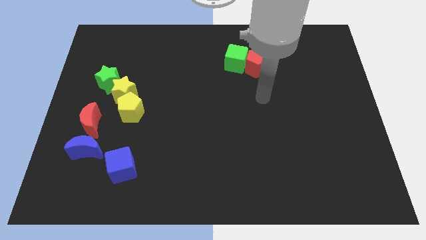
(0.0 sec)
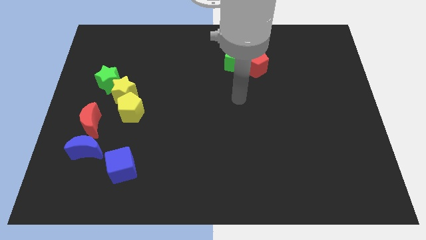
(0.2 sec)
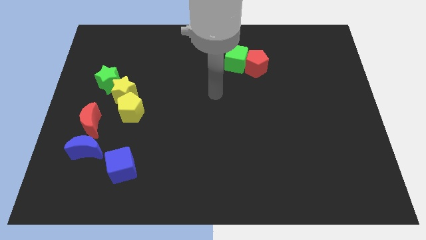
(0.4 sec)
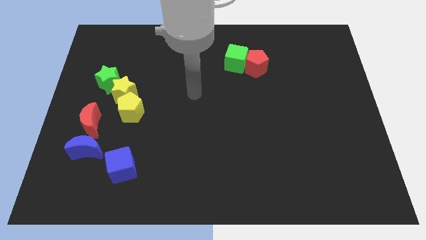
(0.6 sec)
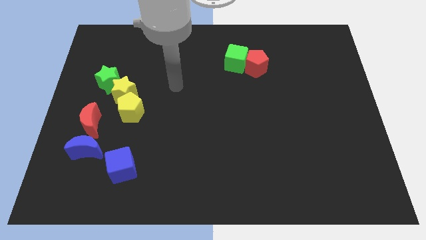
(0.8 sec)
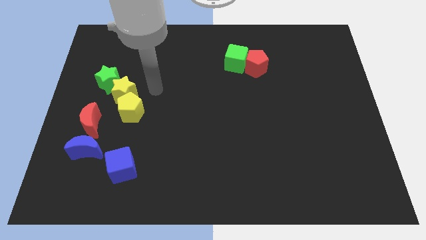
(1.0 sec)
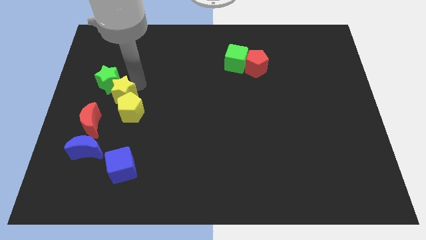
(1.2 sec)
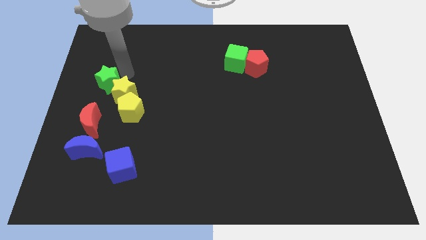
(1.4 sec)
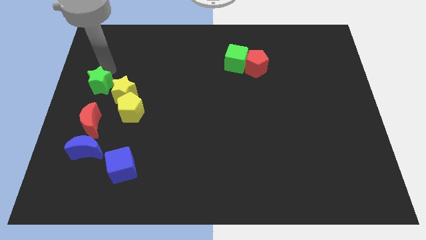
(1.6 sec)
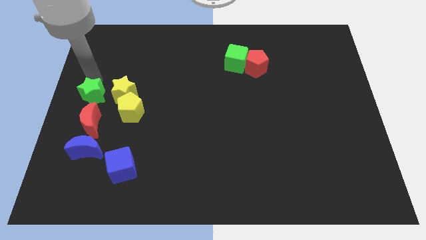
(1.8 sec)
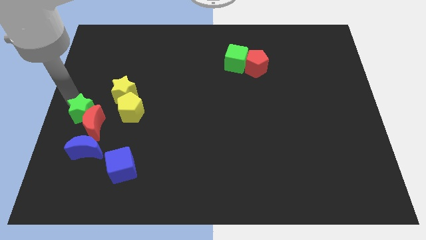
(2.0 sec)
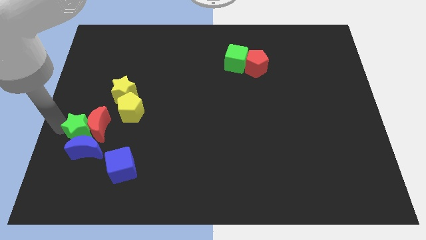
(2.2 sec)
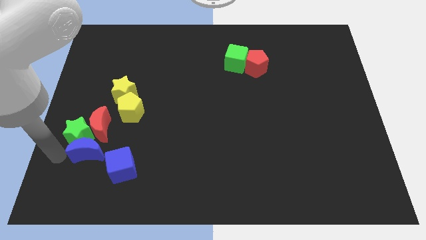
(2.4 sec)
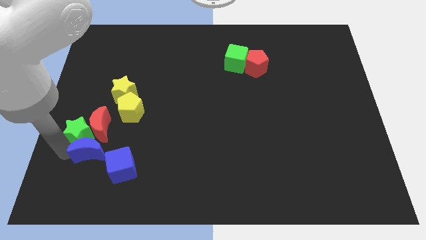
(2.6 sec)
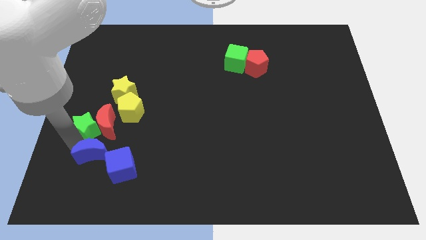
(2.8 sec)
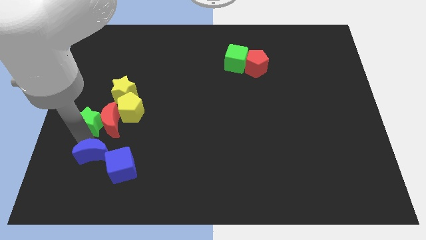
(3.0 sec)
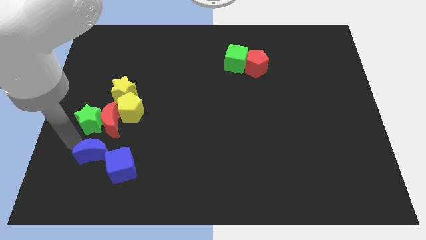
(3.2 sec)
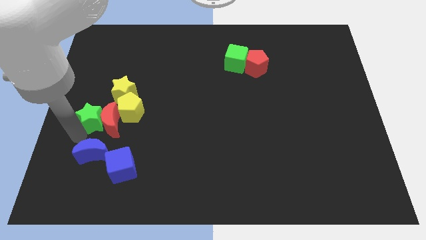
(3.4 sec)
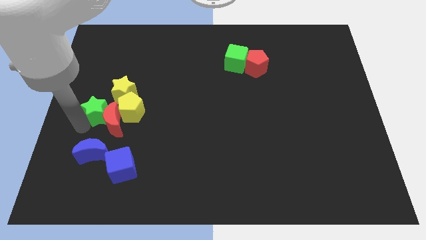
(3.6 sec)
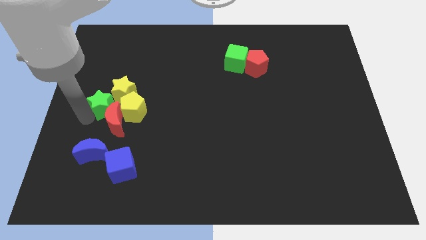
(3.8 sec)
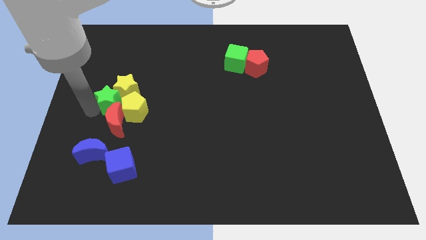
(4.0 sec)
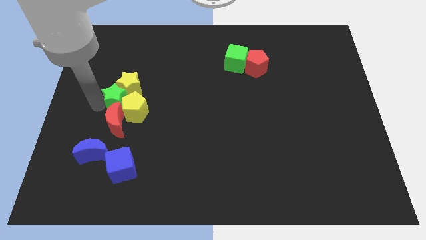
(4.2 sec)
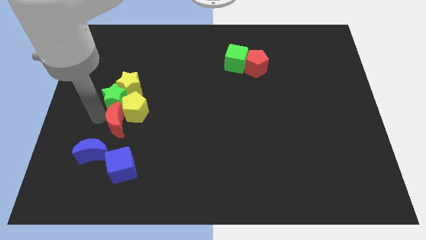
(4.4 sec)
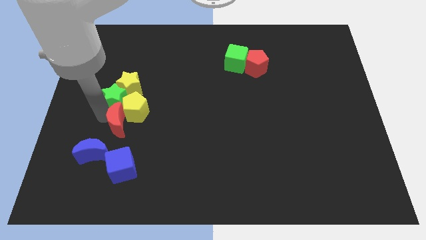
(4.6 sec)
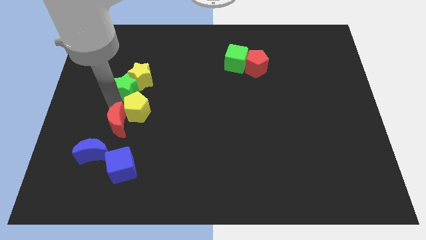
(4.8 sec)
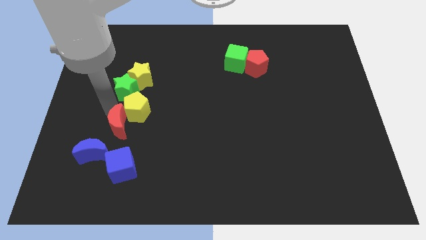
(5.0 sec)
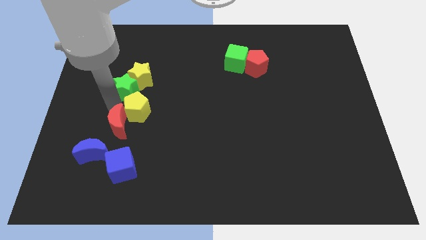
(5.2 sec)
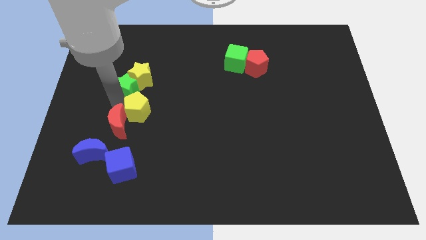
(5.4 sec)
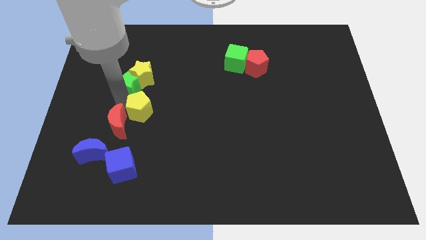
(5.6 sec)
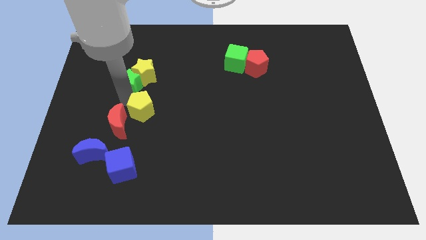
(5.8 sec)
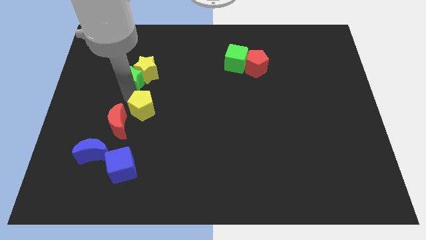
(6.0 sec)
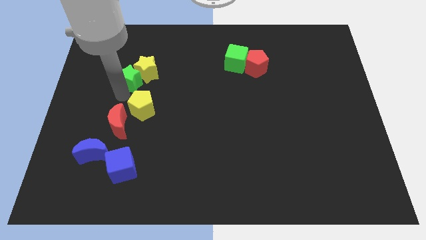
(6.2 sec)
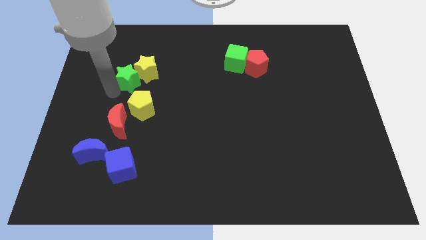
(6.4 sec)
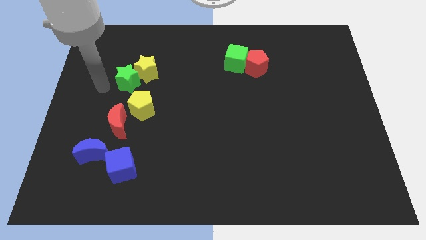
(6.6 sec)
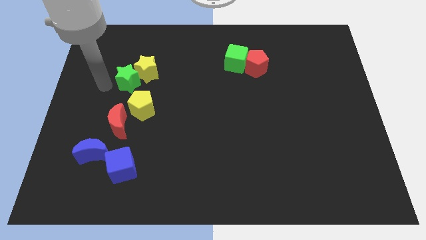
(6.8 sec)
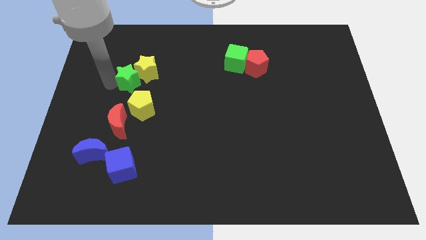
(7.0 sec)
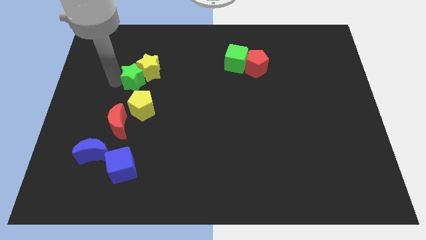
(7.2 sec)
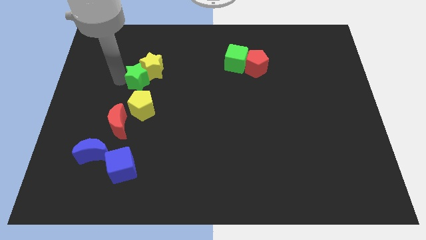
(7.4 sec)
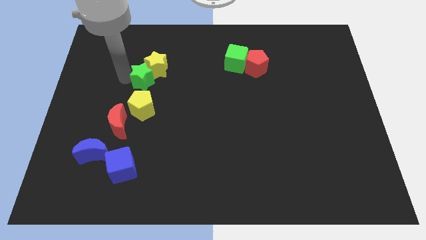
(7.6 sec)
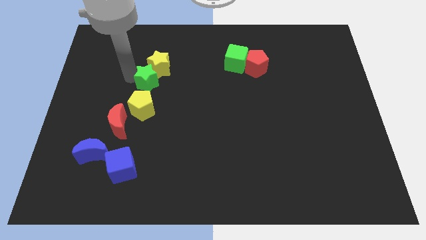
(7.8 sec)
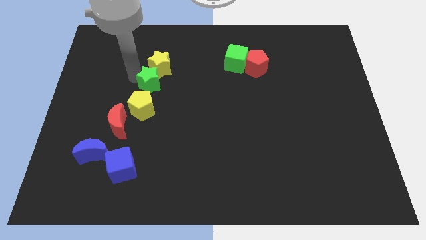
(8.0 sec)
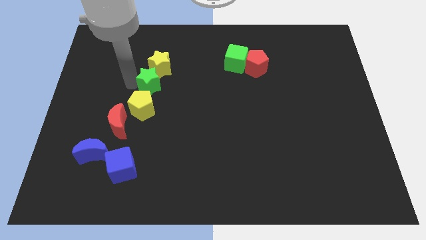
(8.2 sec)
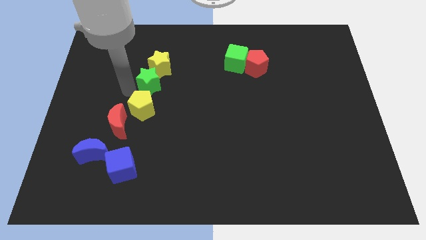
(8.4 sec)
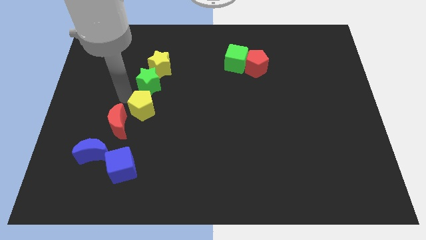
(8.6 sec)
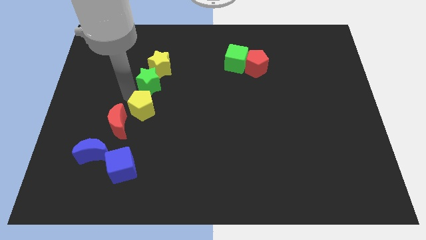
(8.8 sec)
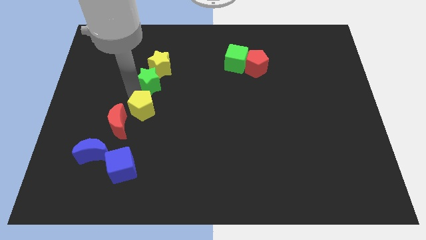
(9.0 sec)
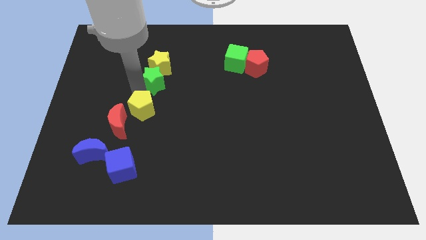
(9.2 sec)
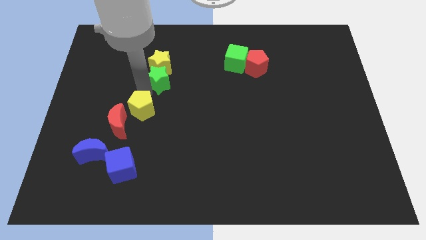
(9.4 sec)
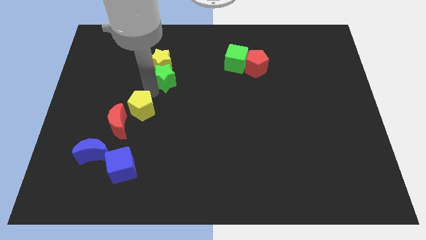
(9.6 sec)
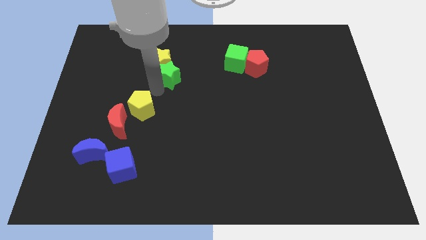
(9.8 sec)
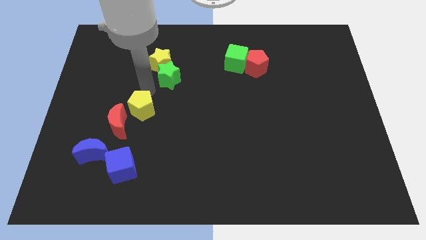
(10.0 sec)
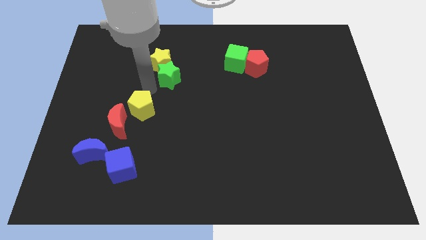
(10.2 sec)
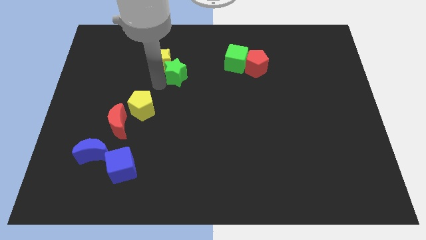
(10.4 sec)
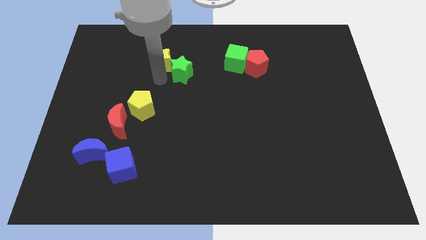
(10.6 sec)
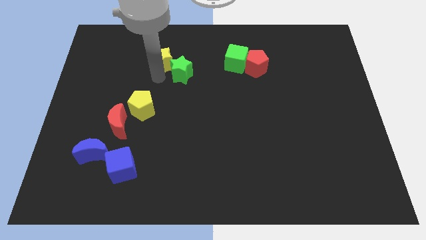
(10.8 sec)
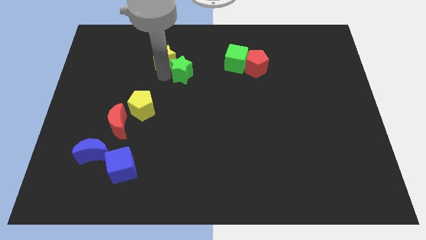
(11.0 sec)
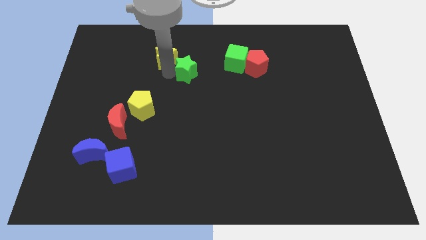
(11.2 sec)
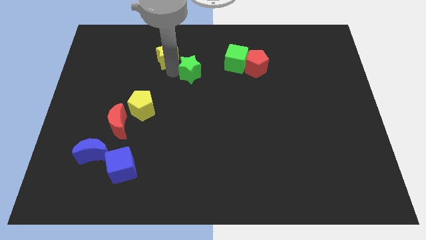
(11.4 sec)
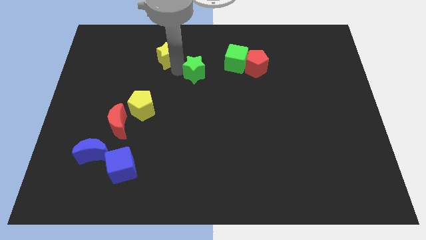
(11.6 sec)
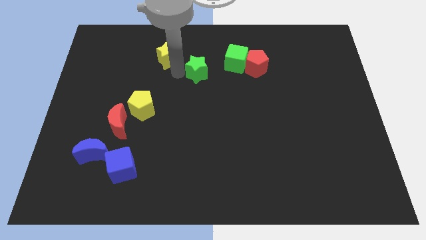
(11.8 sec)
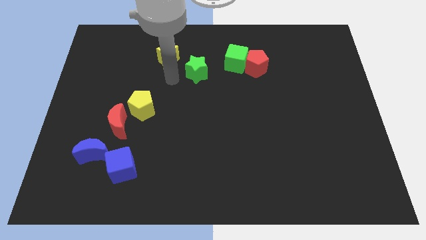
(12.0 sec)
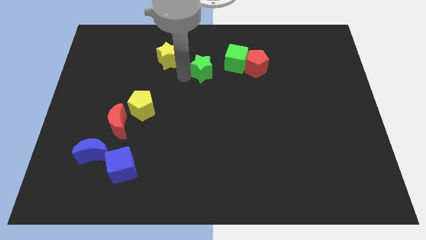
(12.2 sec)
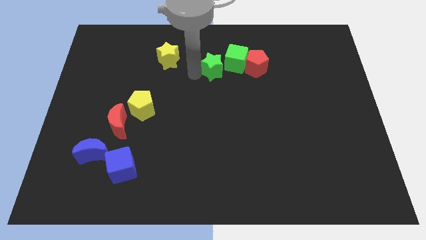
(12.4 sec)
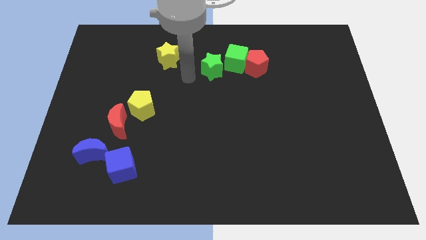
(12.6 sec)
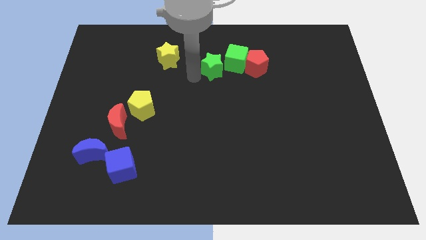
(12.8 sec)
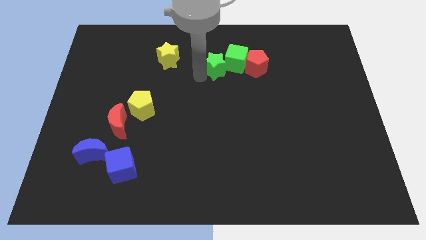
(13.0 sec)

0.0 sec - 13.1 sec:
push the green star next to the green cube

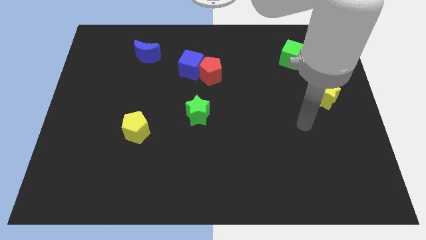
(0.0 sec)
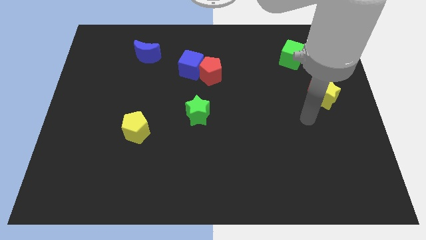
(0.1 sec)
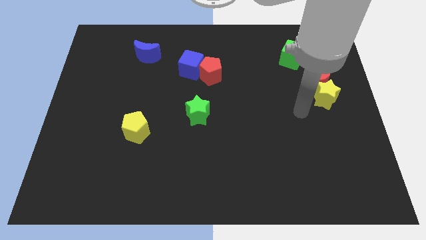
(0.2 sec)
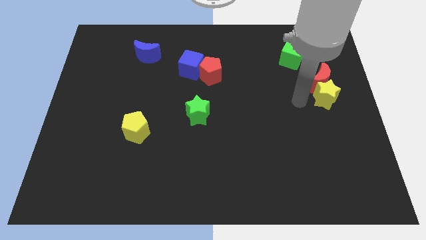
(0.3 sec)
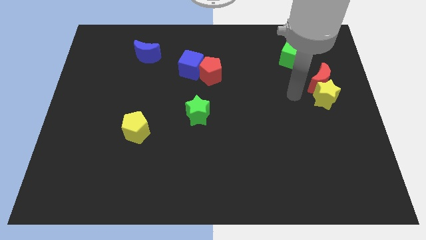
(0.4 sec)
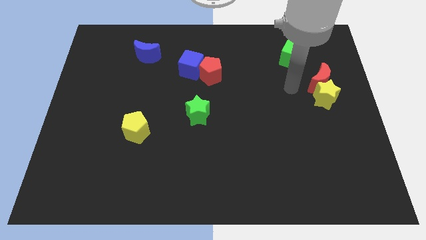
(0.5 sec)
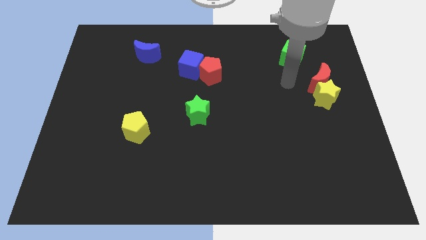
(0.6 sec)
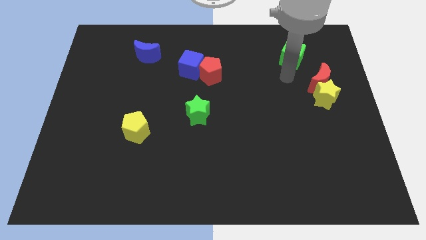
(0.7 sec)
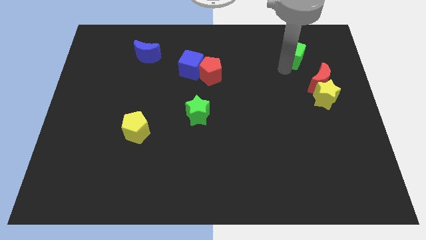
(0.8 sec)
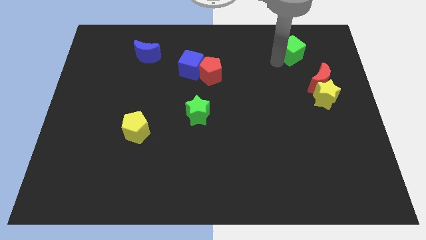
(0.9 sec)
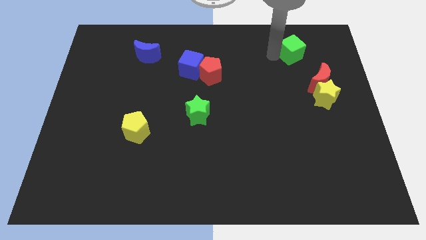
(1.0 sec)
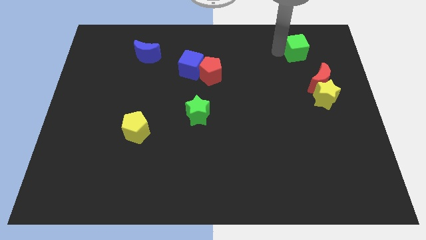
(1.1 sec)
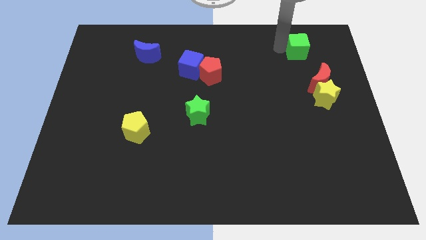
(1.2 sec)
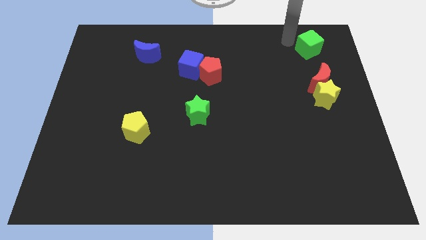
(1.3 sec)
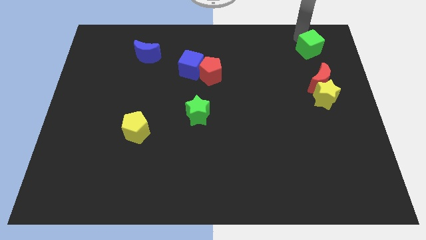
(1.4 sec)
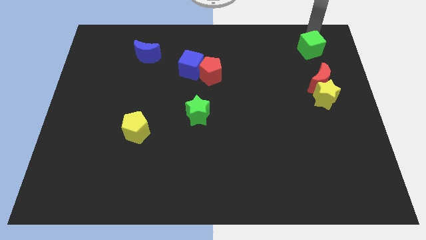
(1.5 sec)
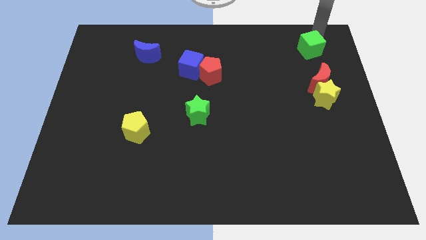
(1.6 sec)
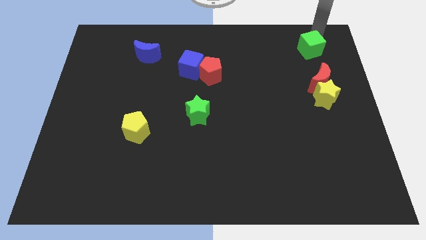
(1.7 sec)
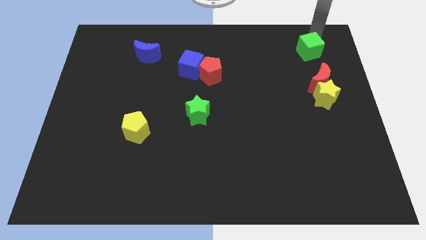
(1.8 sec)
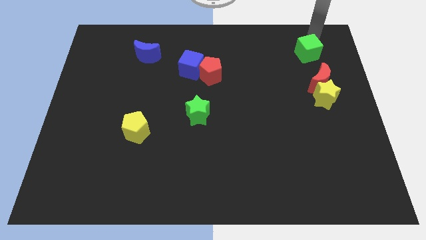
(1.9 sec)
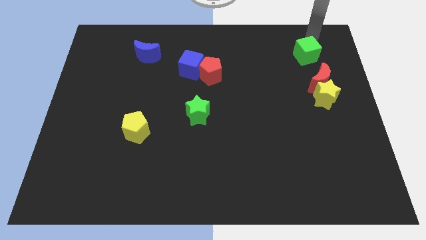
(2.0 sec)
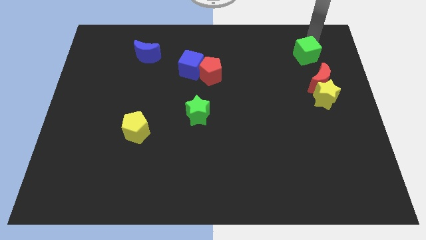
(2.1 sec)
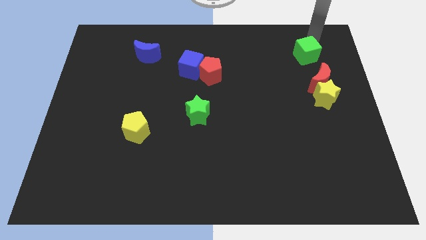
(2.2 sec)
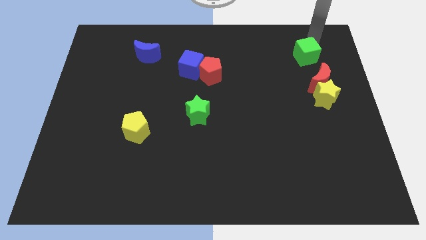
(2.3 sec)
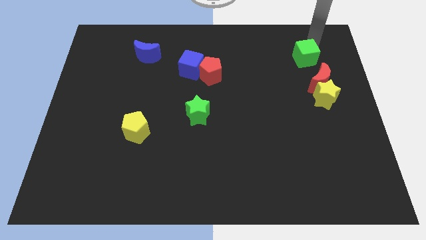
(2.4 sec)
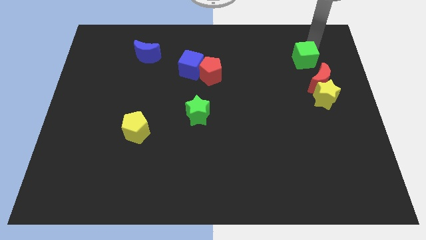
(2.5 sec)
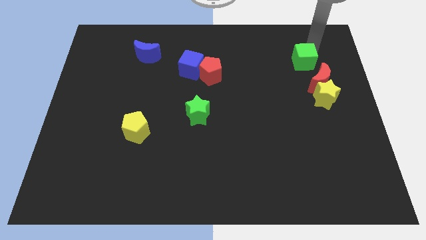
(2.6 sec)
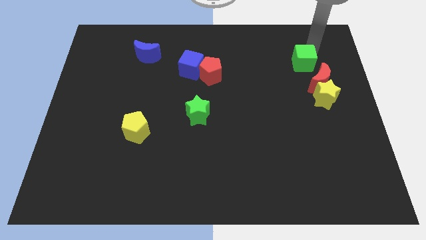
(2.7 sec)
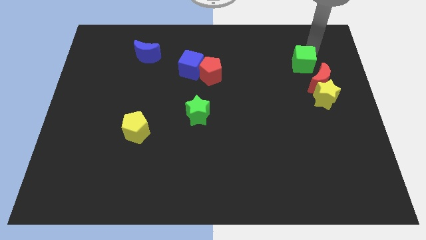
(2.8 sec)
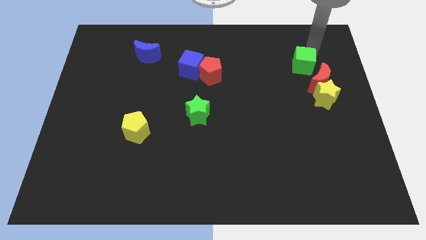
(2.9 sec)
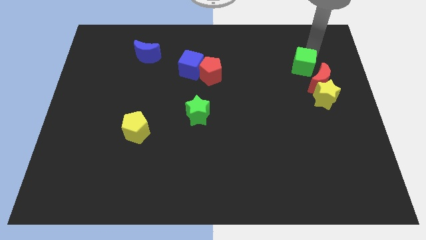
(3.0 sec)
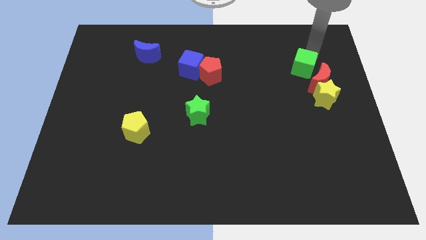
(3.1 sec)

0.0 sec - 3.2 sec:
put the green cube to the red moon
